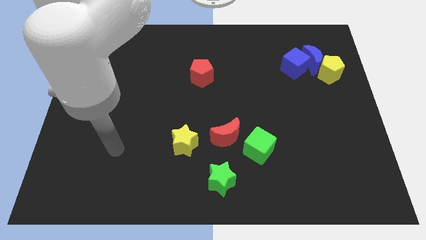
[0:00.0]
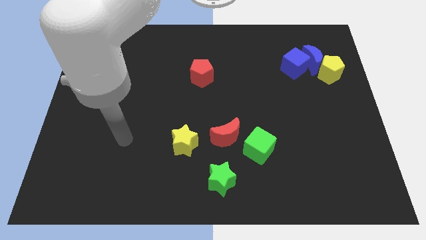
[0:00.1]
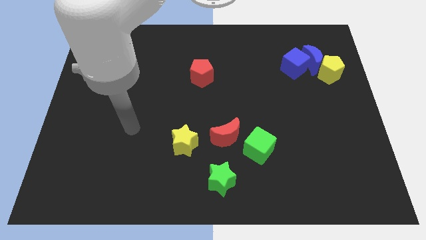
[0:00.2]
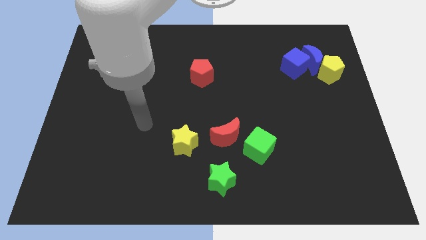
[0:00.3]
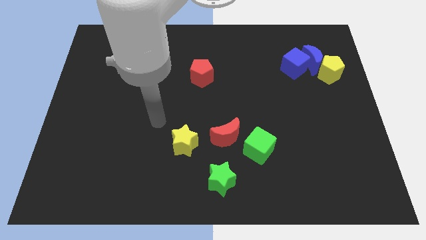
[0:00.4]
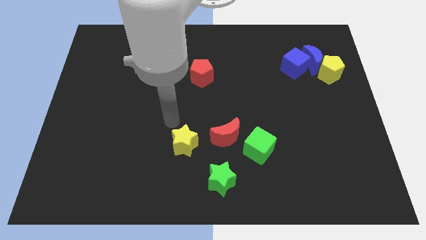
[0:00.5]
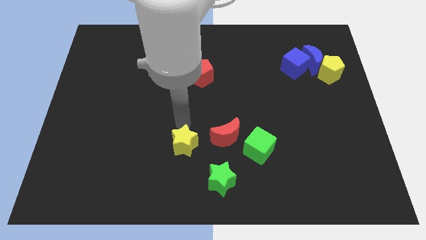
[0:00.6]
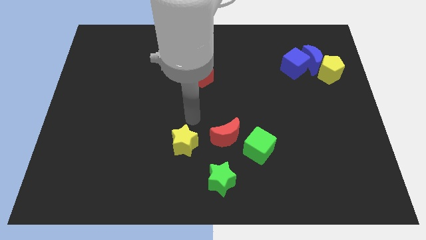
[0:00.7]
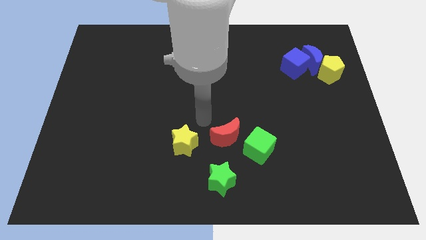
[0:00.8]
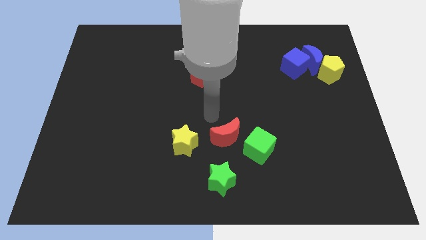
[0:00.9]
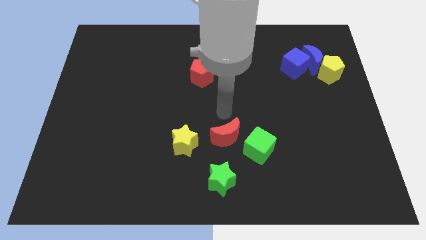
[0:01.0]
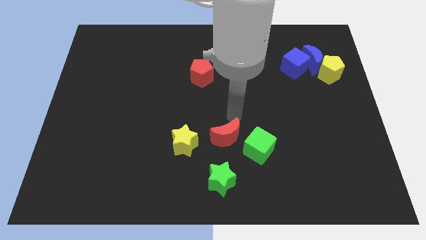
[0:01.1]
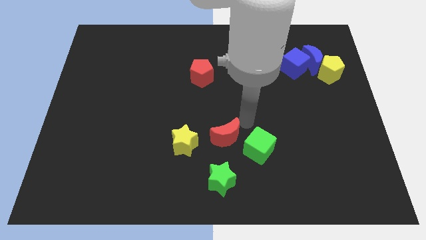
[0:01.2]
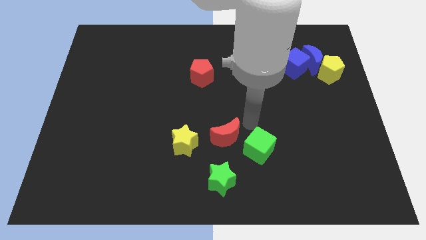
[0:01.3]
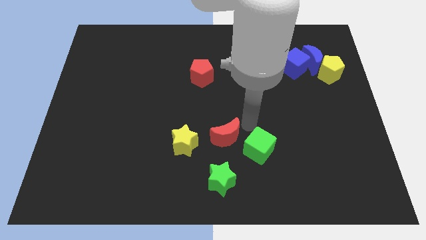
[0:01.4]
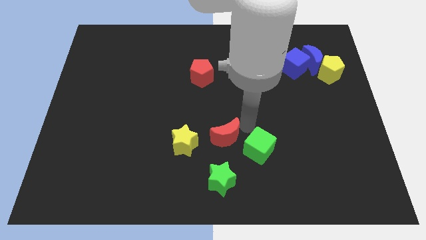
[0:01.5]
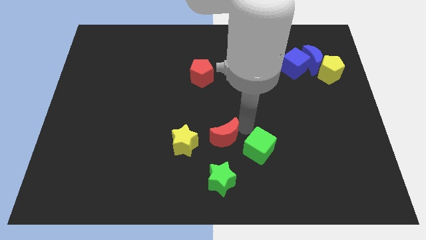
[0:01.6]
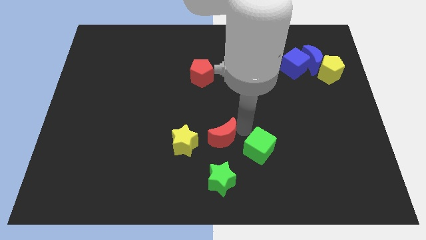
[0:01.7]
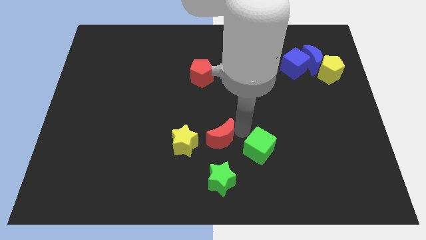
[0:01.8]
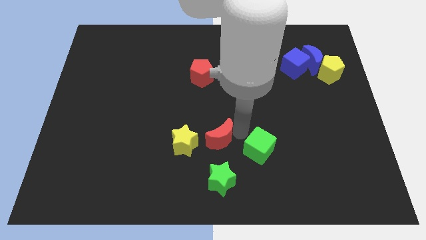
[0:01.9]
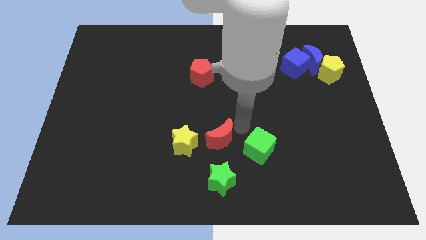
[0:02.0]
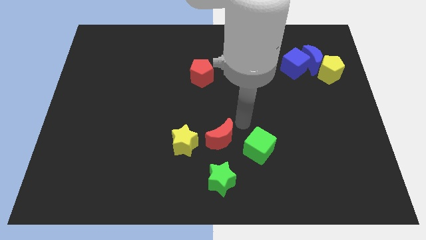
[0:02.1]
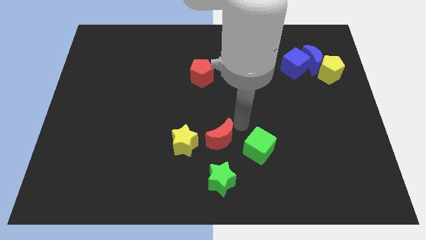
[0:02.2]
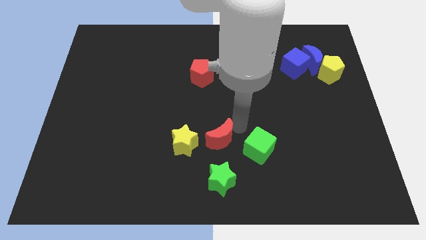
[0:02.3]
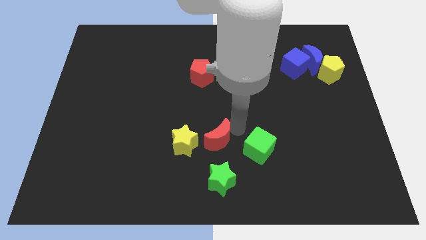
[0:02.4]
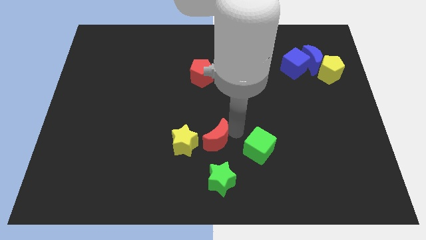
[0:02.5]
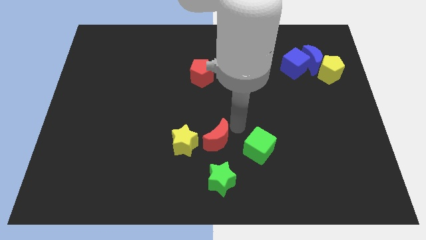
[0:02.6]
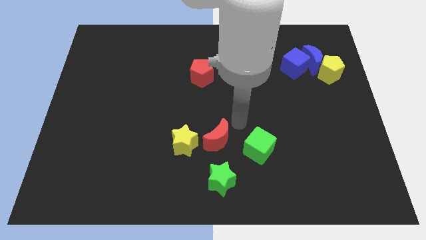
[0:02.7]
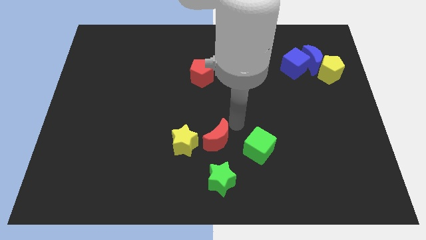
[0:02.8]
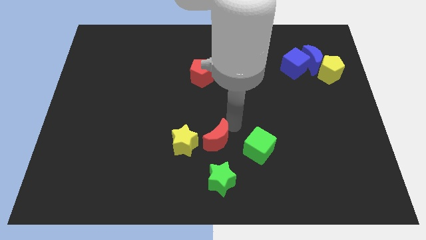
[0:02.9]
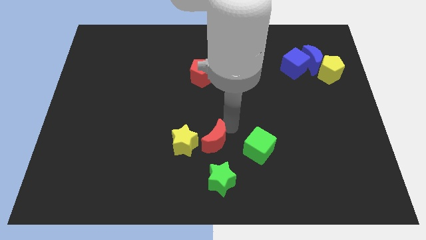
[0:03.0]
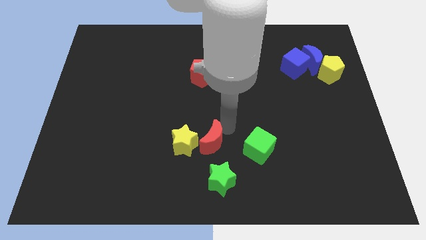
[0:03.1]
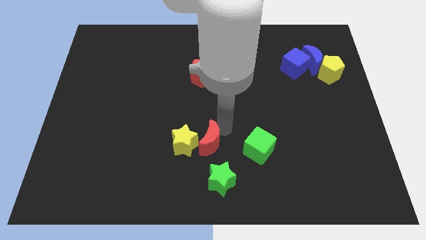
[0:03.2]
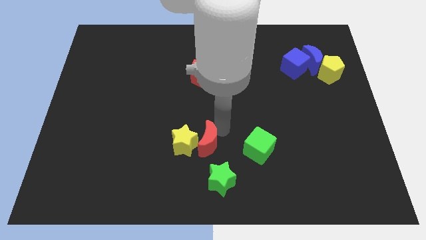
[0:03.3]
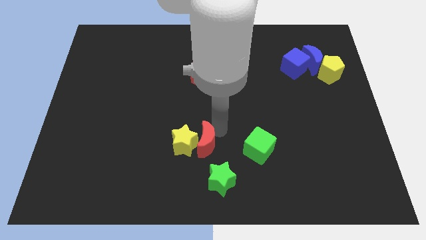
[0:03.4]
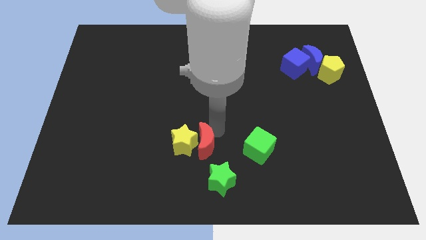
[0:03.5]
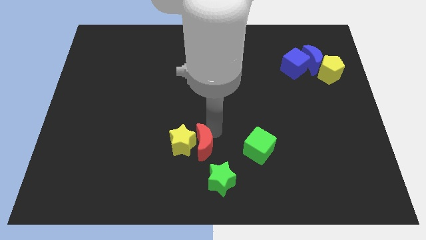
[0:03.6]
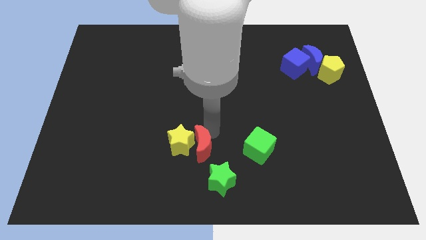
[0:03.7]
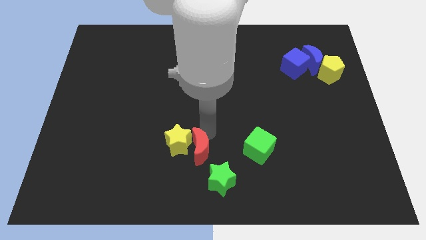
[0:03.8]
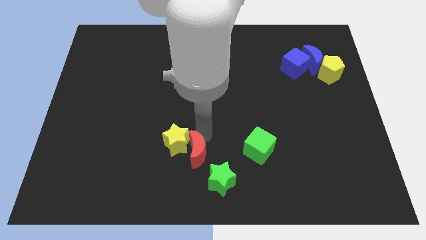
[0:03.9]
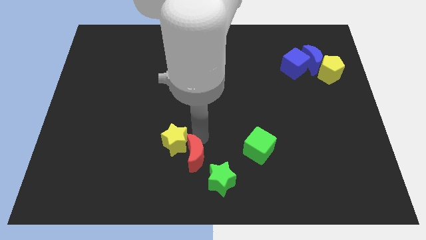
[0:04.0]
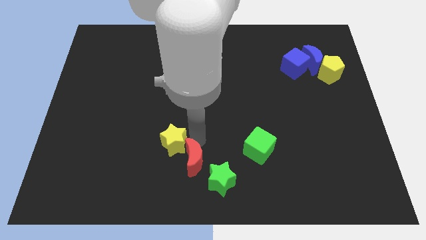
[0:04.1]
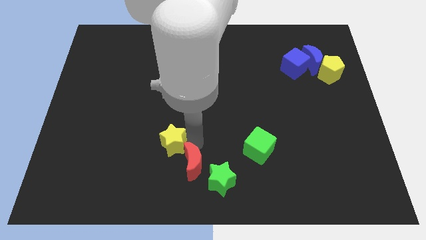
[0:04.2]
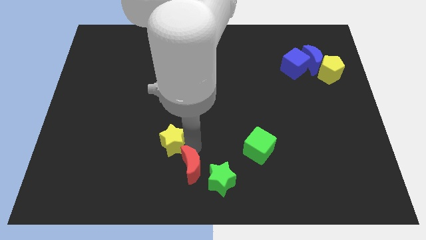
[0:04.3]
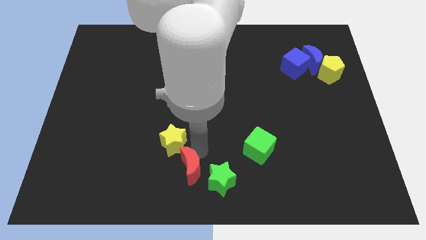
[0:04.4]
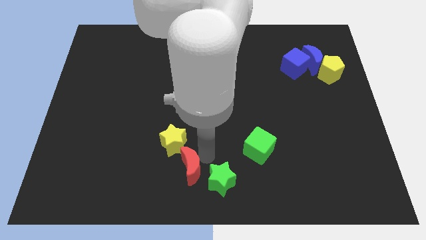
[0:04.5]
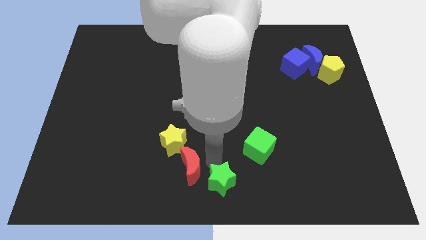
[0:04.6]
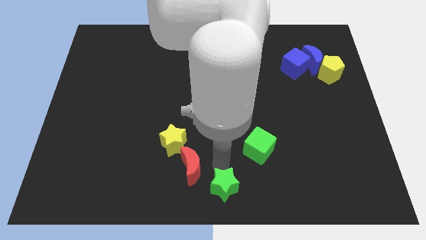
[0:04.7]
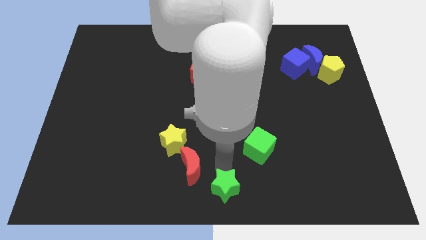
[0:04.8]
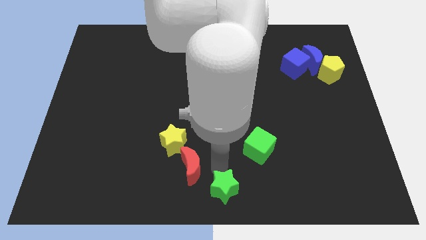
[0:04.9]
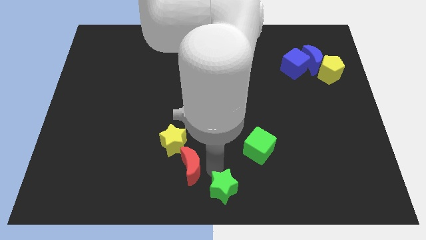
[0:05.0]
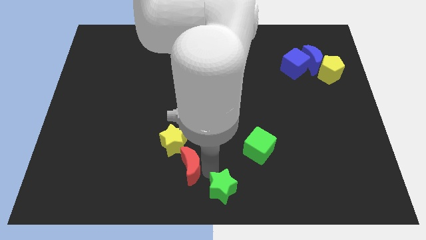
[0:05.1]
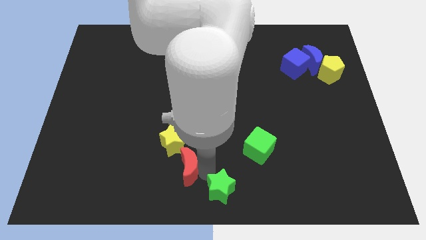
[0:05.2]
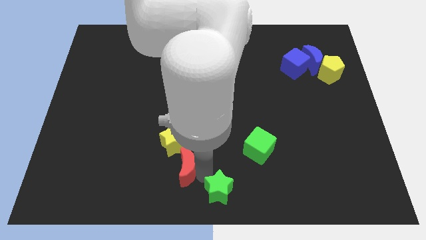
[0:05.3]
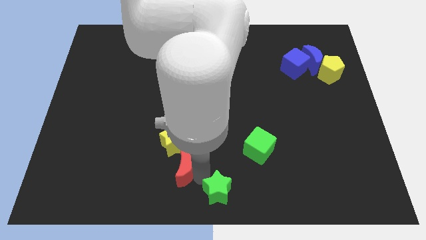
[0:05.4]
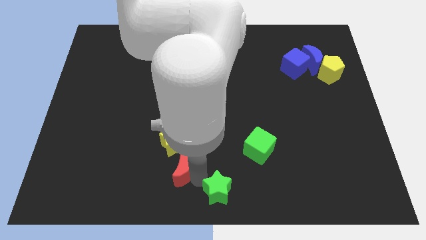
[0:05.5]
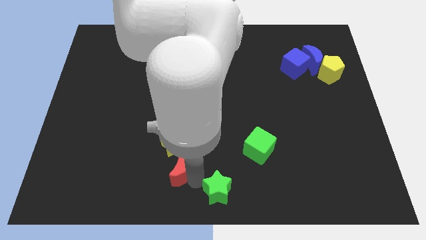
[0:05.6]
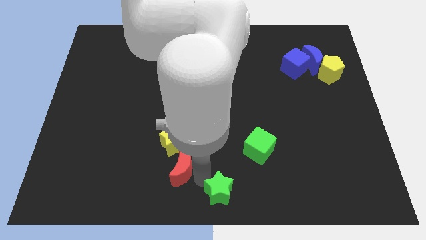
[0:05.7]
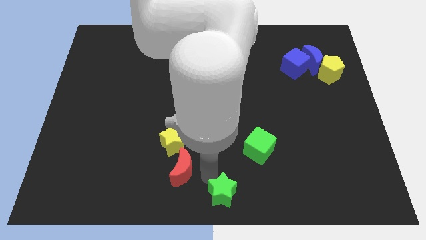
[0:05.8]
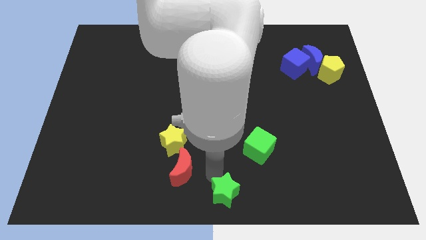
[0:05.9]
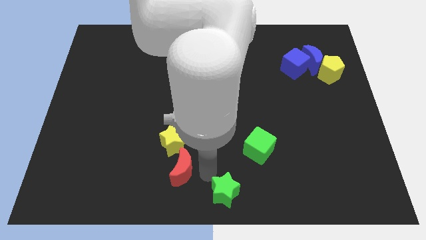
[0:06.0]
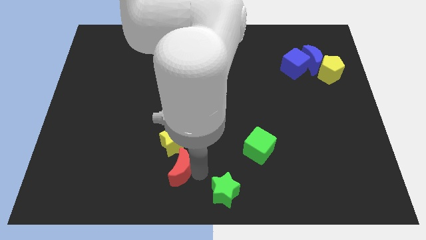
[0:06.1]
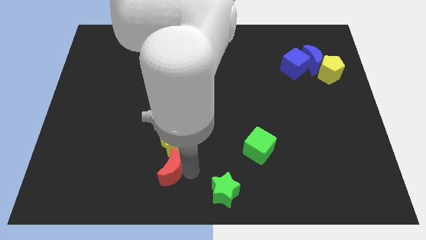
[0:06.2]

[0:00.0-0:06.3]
push the red moon diagonally down and to the left of the yellow star

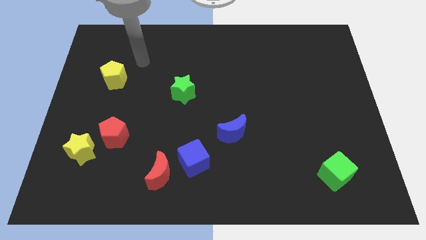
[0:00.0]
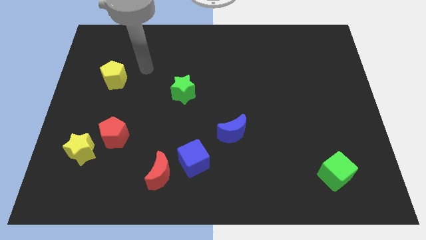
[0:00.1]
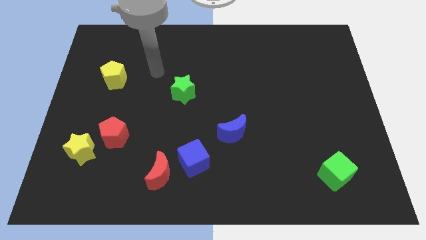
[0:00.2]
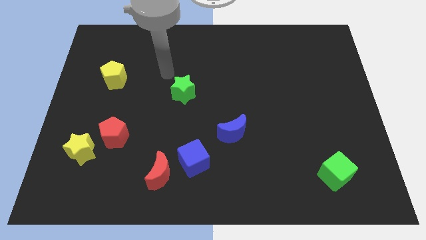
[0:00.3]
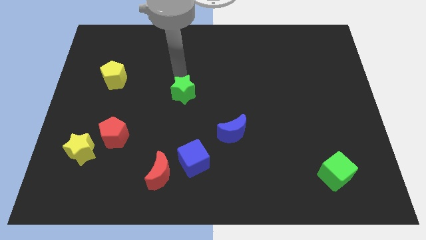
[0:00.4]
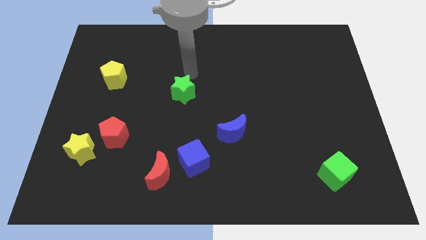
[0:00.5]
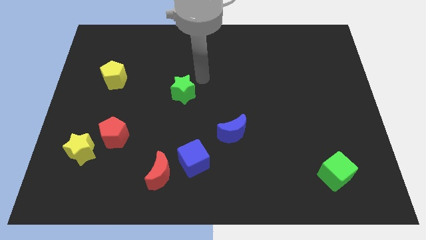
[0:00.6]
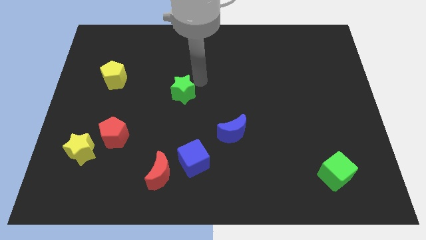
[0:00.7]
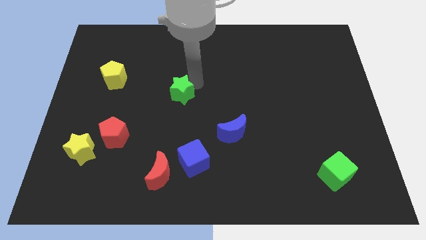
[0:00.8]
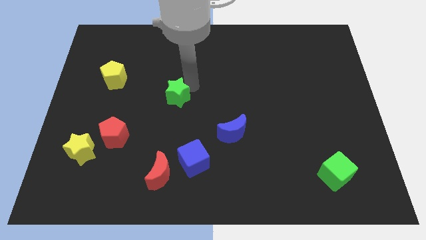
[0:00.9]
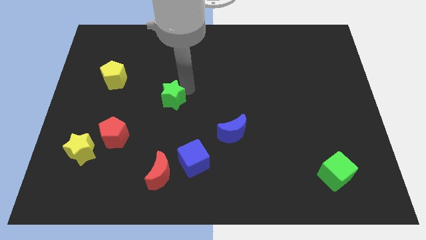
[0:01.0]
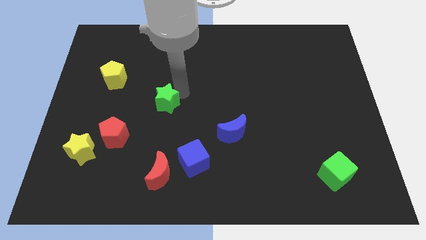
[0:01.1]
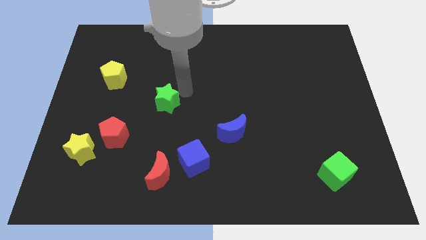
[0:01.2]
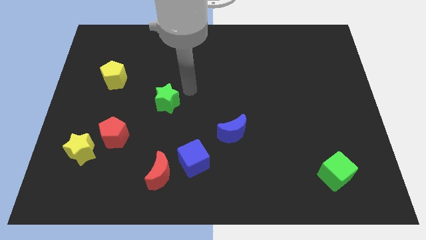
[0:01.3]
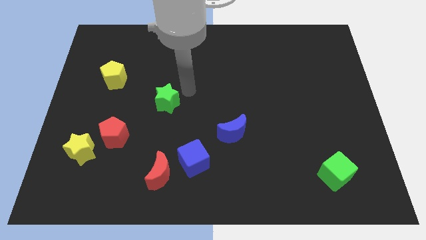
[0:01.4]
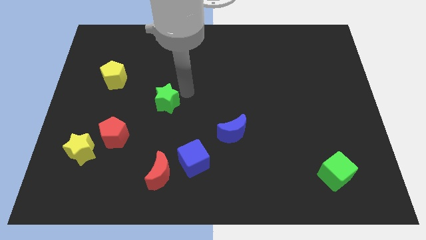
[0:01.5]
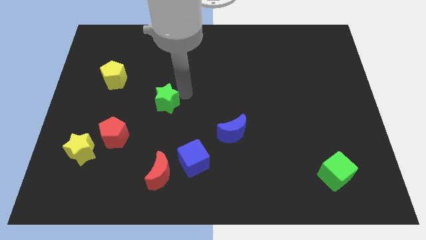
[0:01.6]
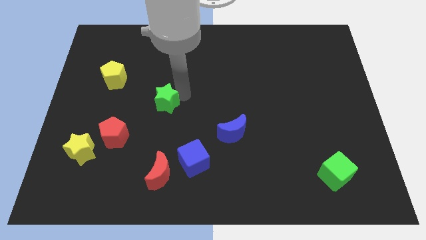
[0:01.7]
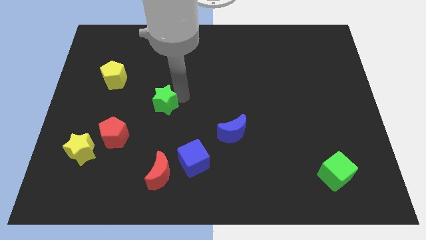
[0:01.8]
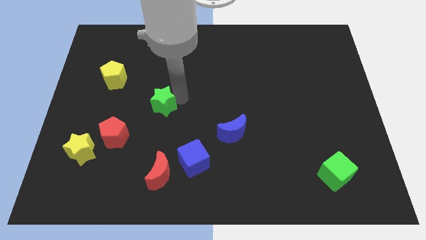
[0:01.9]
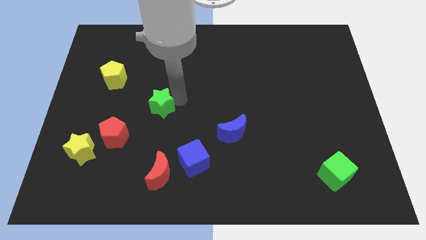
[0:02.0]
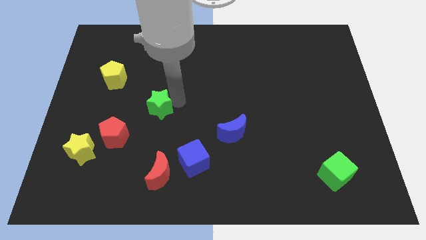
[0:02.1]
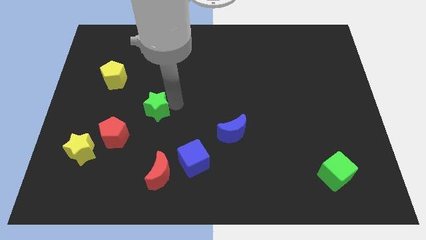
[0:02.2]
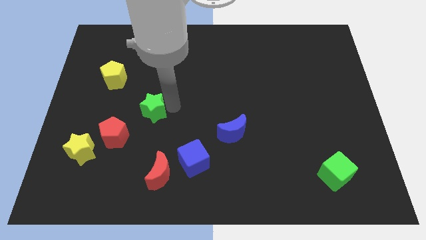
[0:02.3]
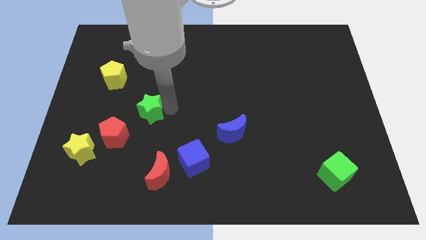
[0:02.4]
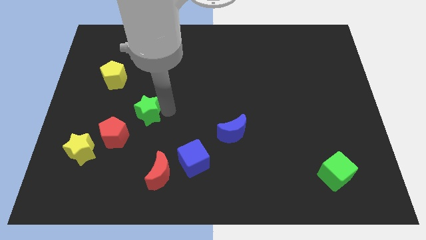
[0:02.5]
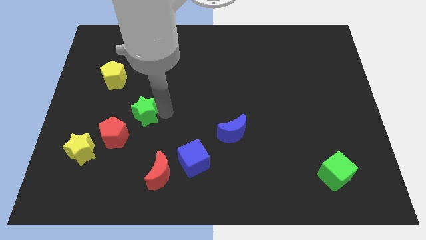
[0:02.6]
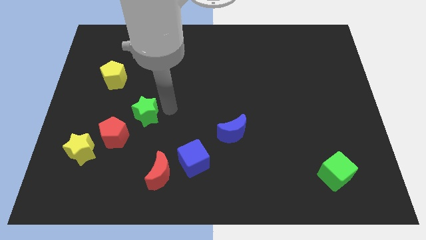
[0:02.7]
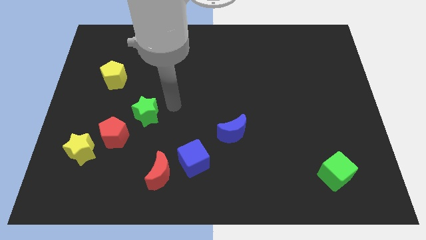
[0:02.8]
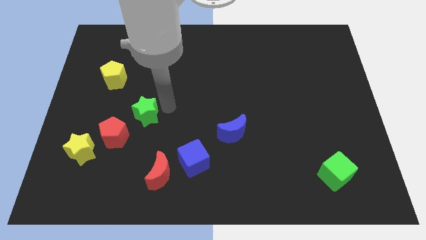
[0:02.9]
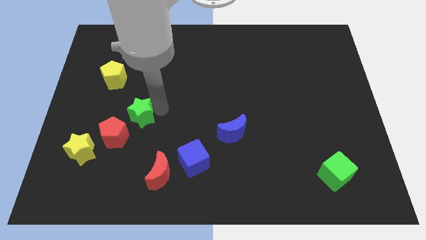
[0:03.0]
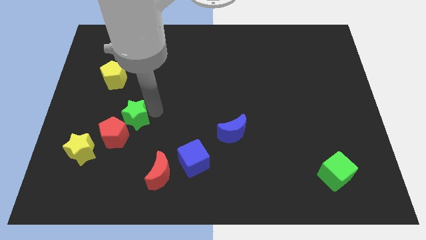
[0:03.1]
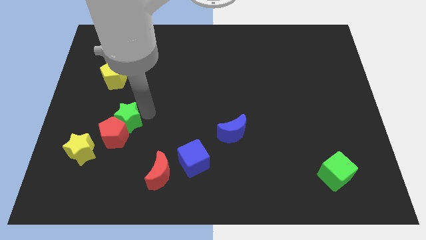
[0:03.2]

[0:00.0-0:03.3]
move the green star diagonally up and to the right of the yellow star
